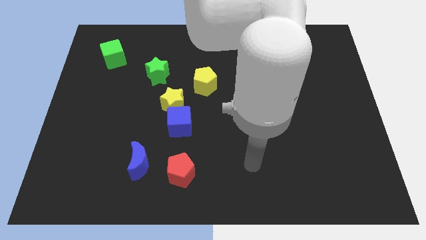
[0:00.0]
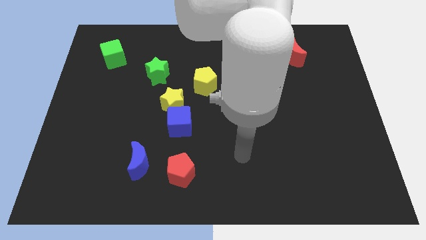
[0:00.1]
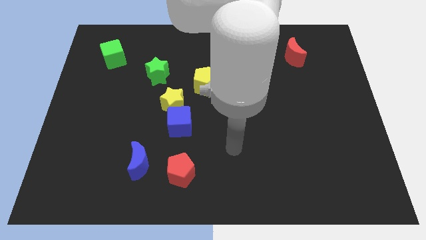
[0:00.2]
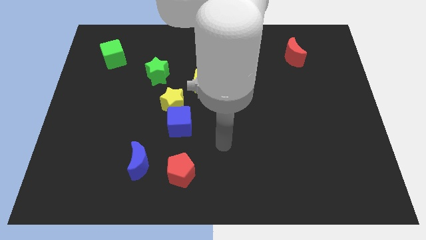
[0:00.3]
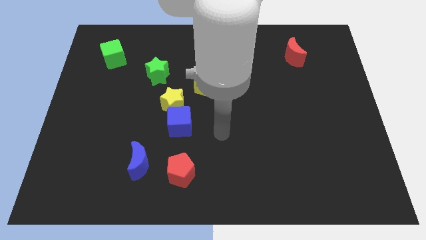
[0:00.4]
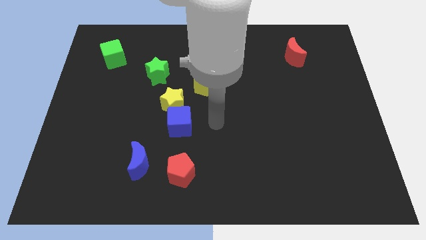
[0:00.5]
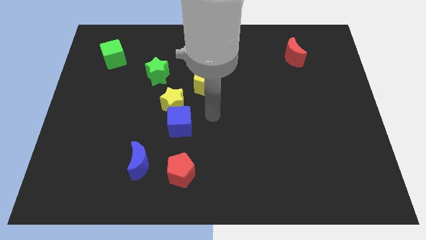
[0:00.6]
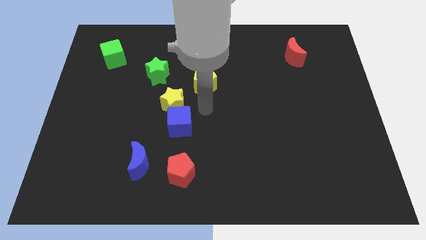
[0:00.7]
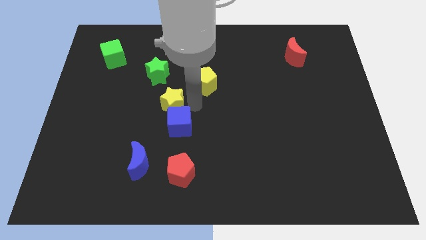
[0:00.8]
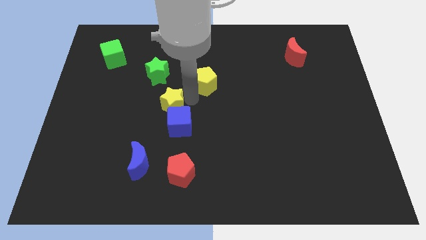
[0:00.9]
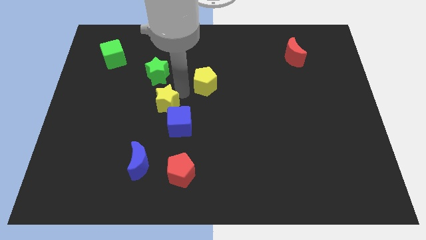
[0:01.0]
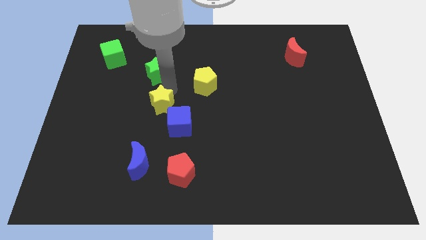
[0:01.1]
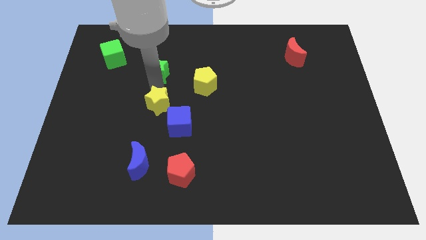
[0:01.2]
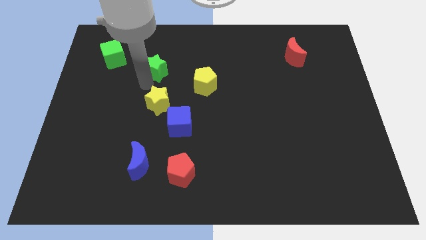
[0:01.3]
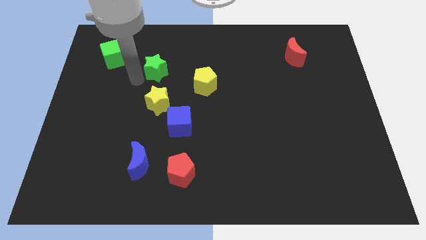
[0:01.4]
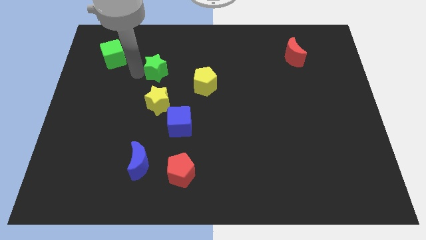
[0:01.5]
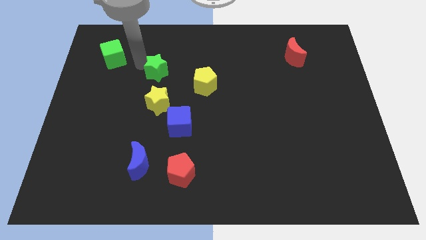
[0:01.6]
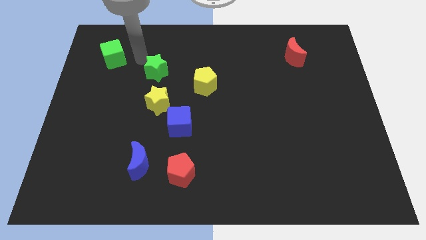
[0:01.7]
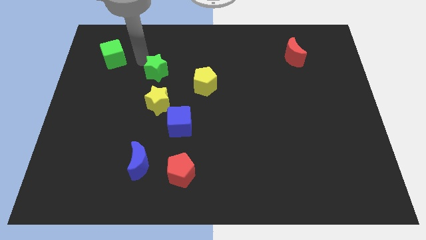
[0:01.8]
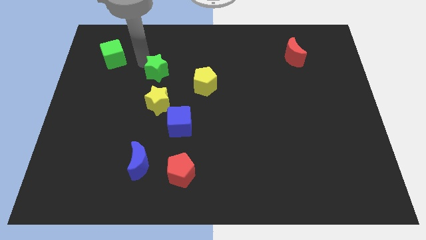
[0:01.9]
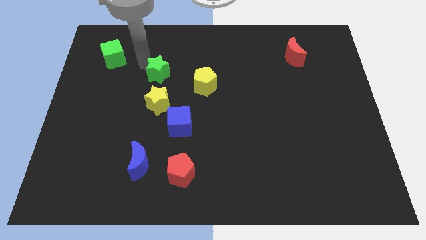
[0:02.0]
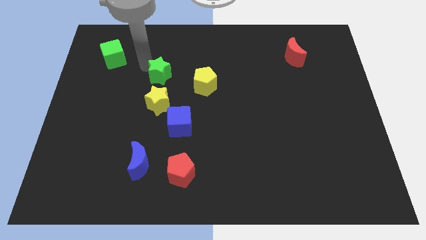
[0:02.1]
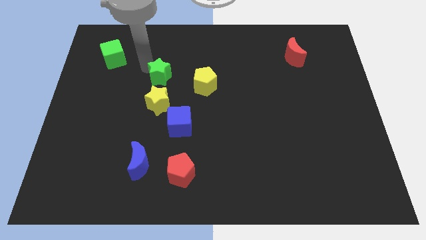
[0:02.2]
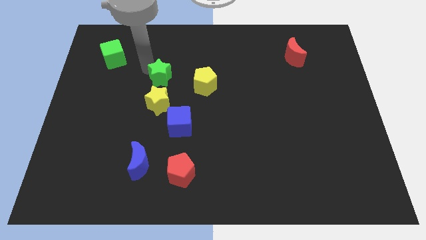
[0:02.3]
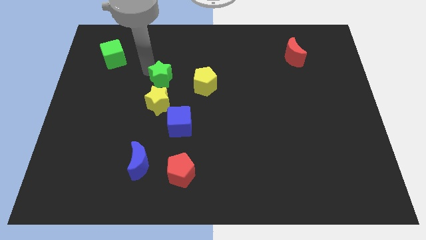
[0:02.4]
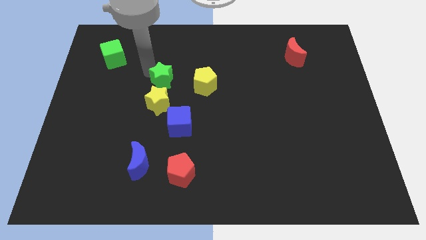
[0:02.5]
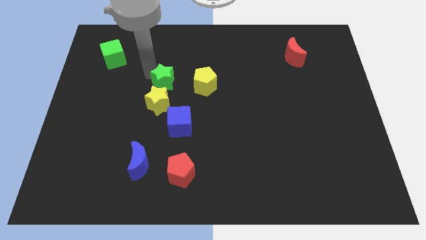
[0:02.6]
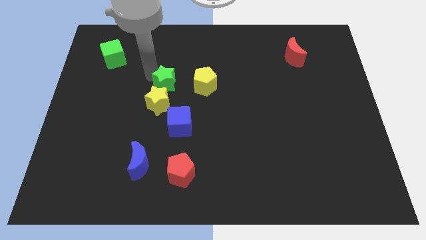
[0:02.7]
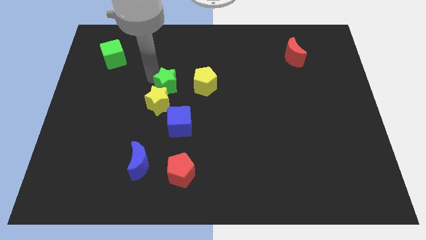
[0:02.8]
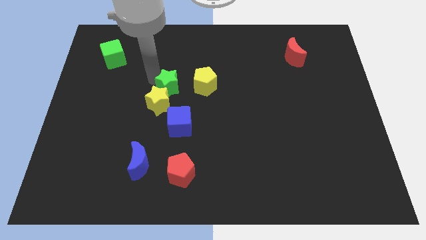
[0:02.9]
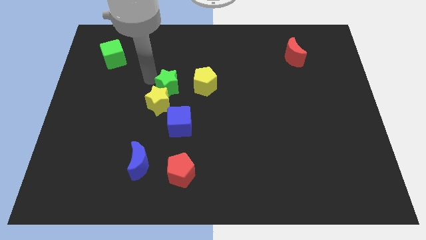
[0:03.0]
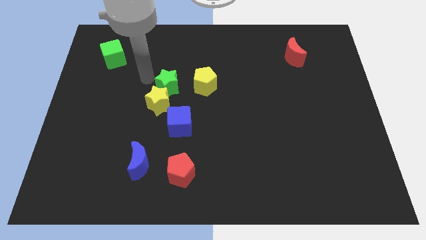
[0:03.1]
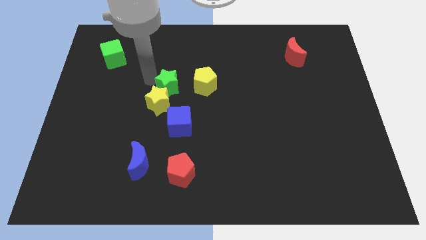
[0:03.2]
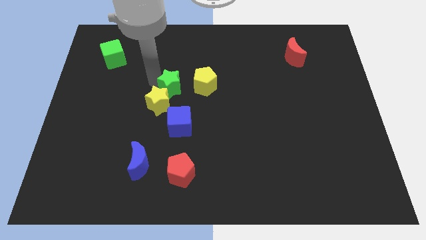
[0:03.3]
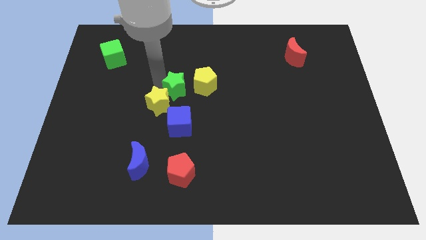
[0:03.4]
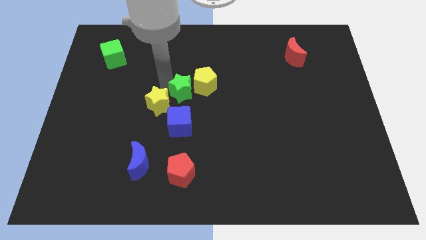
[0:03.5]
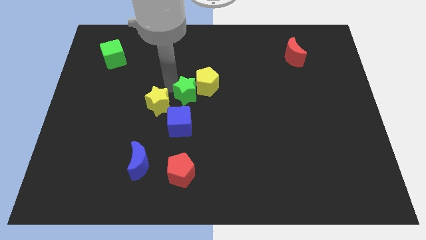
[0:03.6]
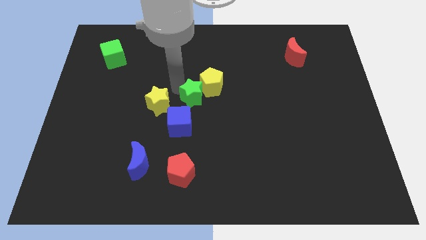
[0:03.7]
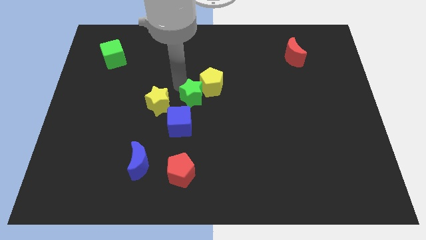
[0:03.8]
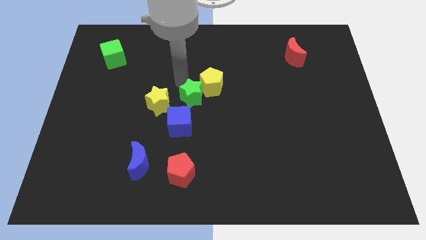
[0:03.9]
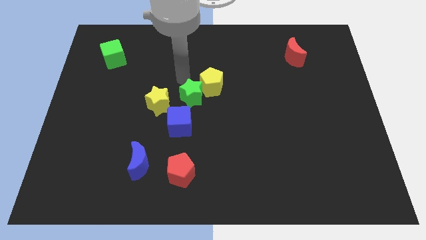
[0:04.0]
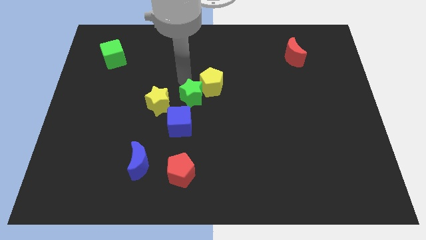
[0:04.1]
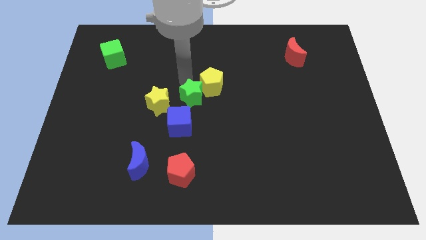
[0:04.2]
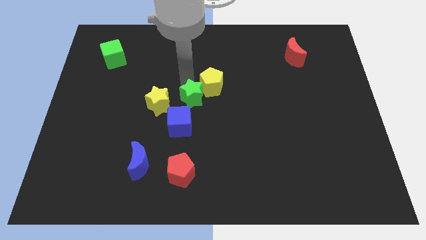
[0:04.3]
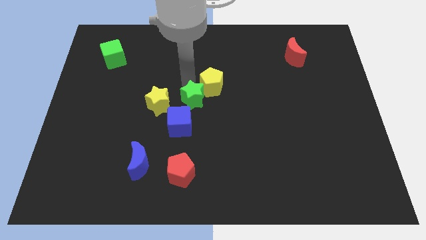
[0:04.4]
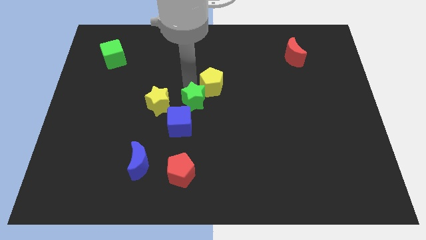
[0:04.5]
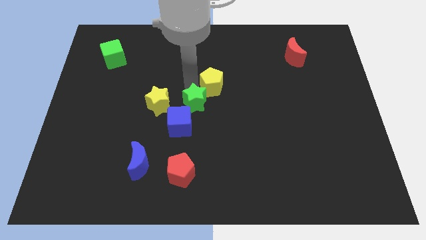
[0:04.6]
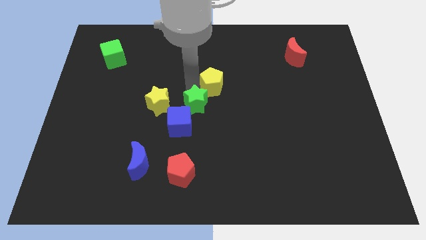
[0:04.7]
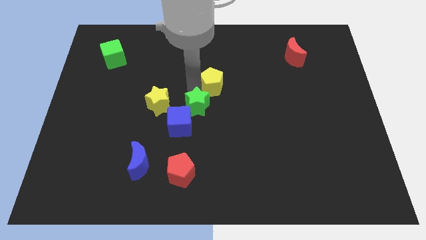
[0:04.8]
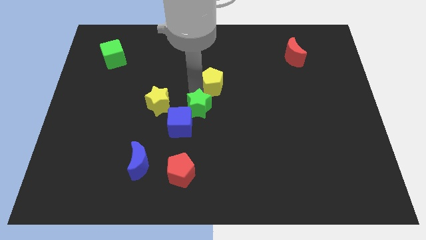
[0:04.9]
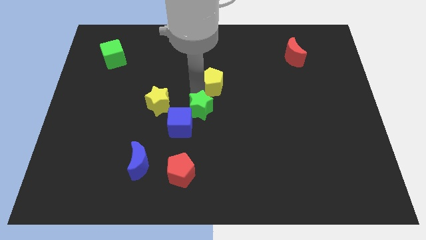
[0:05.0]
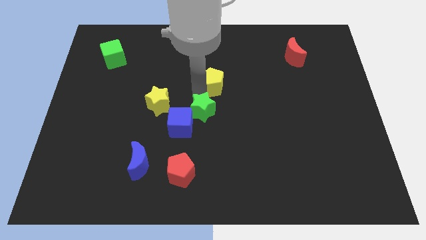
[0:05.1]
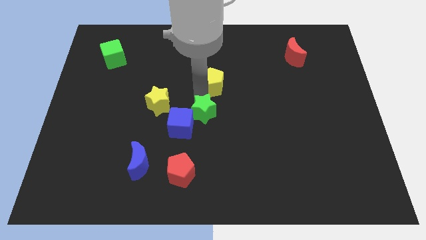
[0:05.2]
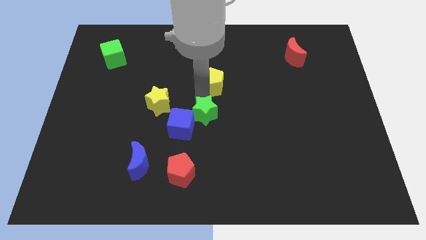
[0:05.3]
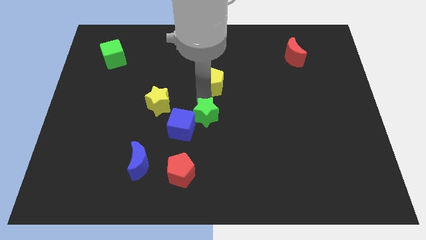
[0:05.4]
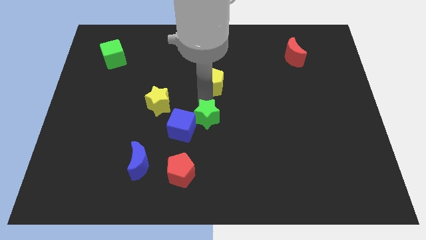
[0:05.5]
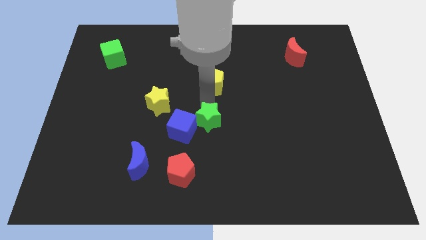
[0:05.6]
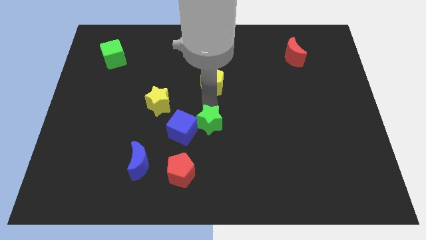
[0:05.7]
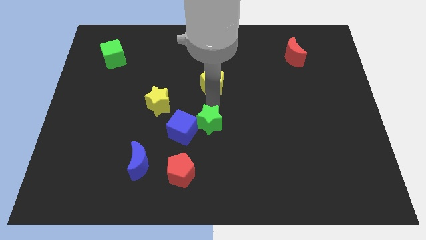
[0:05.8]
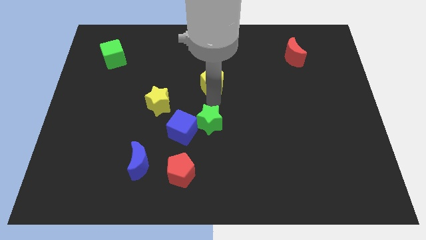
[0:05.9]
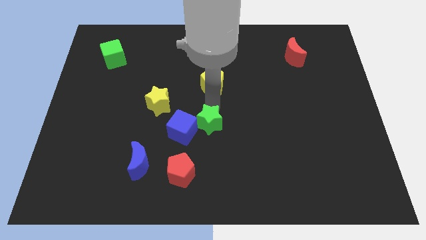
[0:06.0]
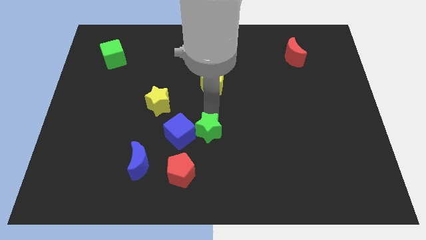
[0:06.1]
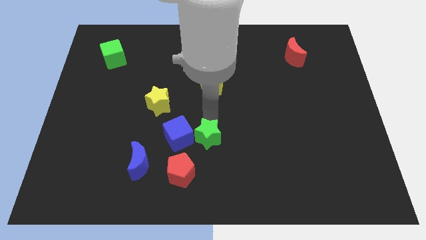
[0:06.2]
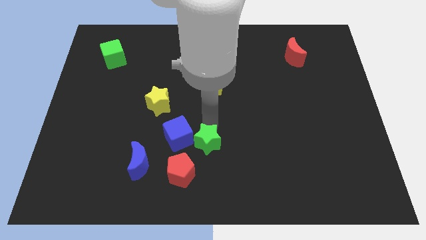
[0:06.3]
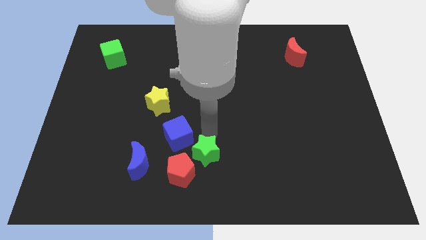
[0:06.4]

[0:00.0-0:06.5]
put the green star to the bottom
